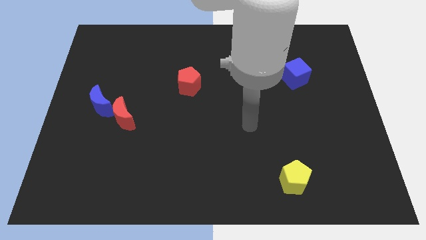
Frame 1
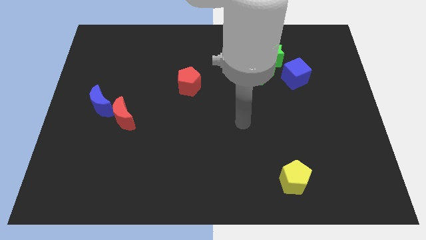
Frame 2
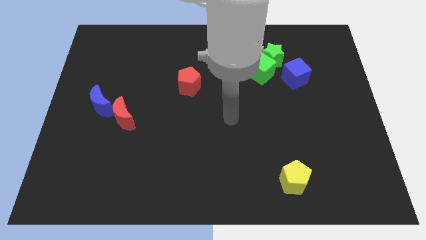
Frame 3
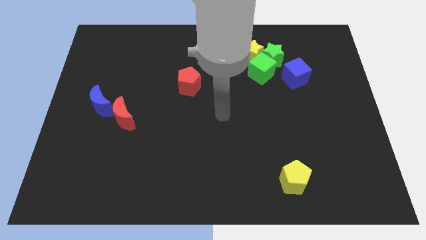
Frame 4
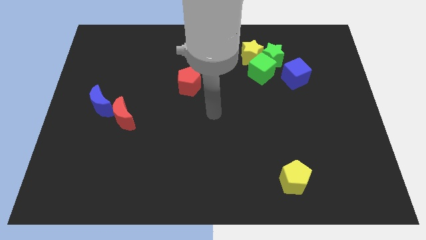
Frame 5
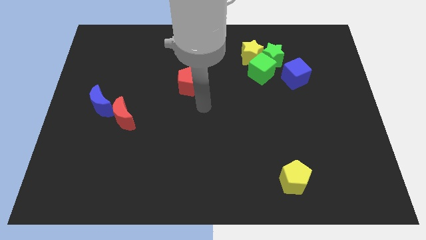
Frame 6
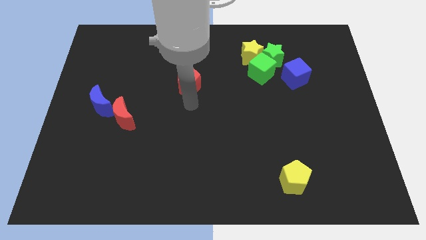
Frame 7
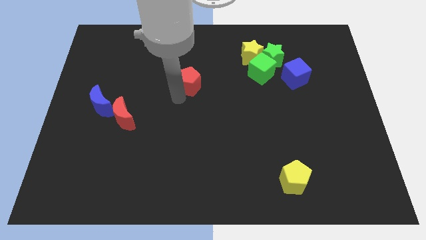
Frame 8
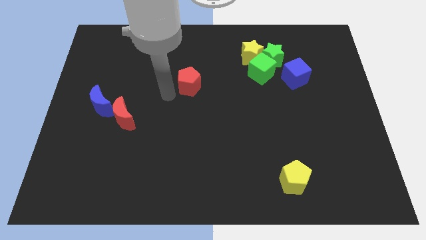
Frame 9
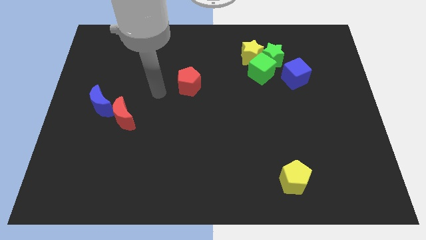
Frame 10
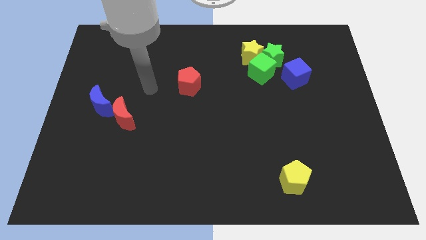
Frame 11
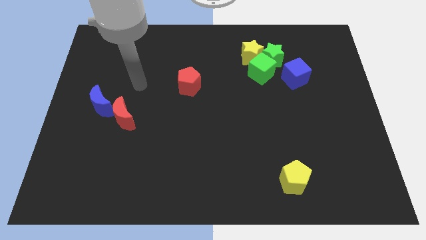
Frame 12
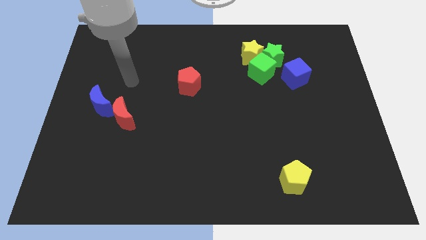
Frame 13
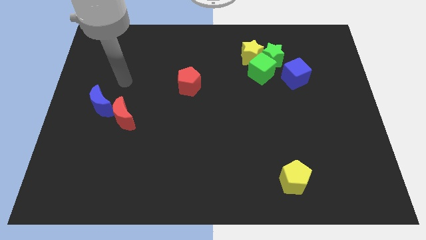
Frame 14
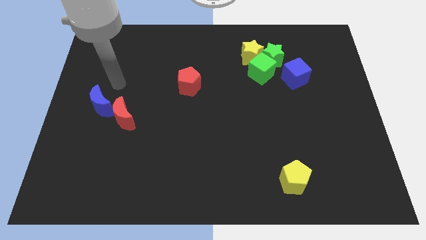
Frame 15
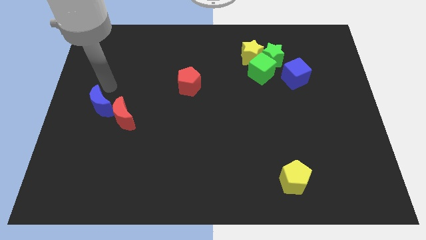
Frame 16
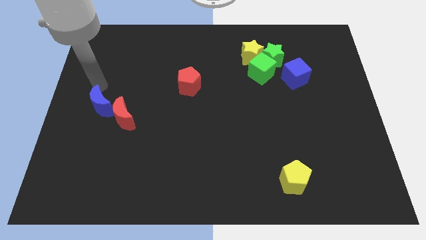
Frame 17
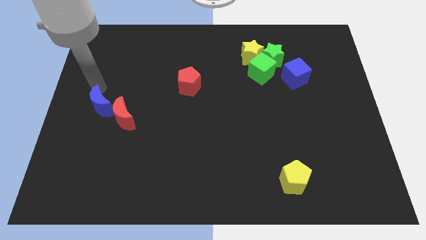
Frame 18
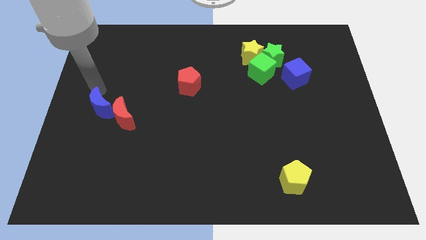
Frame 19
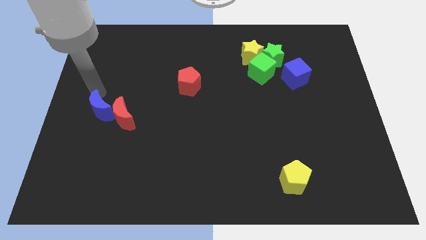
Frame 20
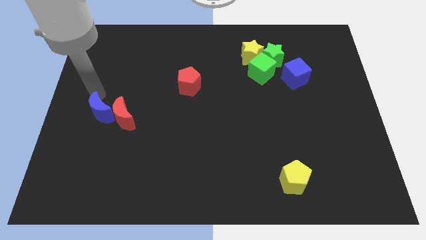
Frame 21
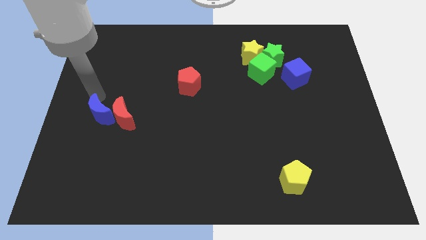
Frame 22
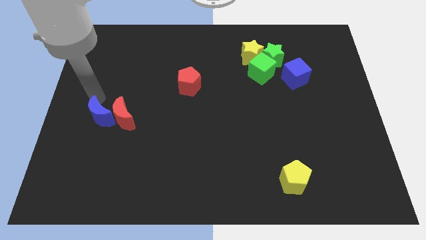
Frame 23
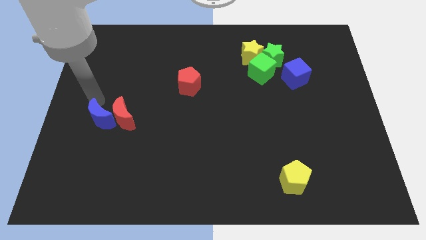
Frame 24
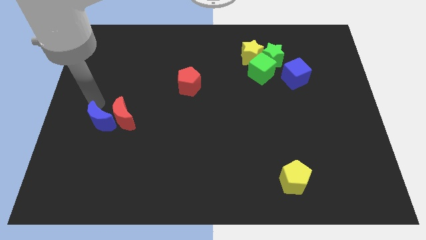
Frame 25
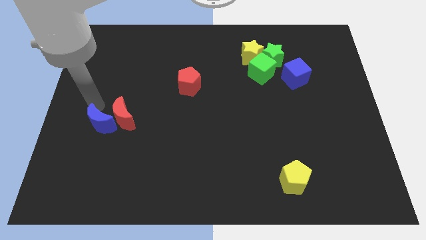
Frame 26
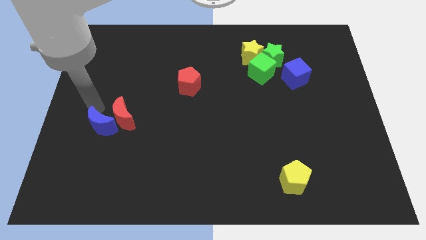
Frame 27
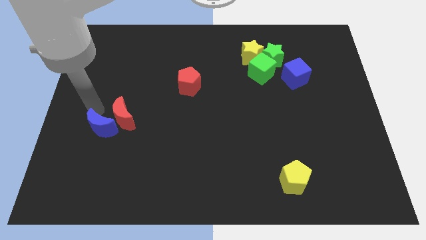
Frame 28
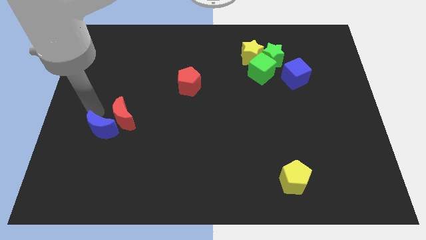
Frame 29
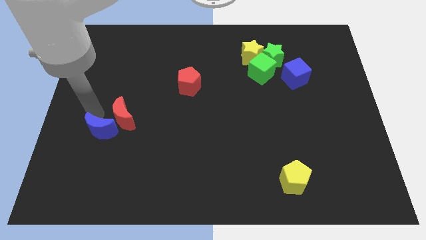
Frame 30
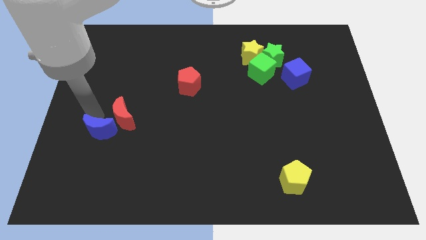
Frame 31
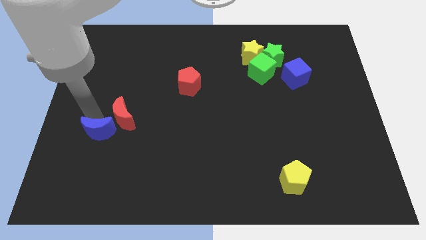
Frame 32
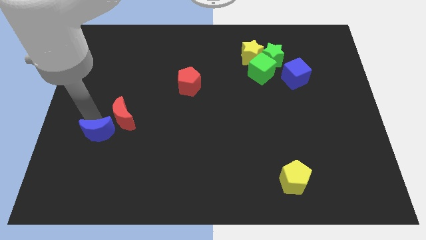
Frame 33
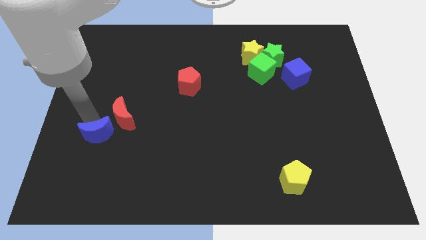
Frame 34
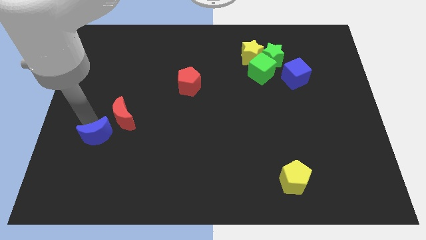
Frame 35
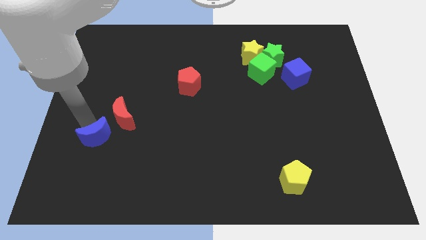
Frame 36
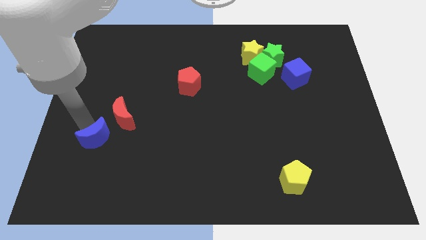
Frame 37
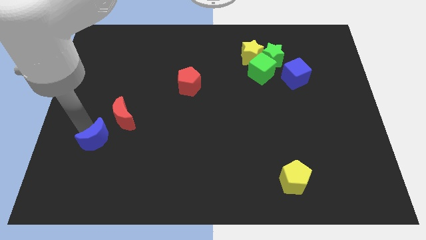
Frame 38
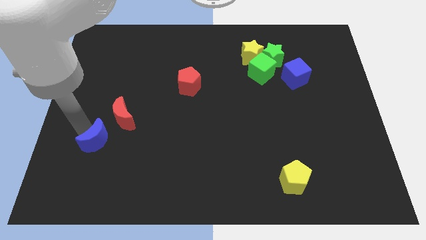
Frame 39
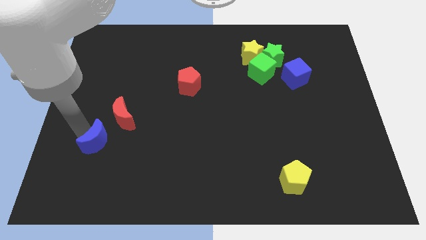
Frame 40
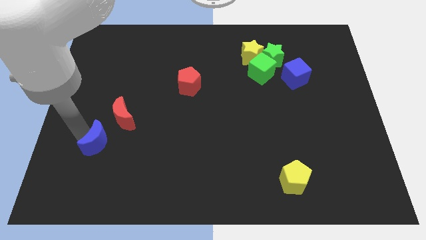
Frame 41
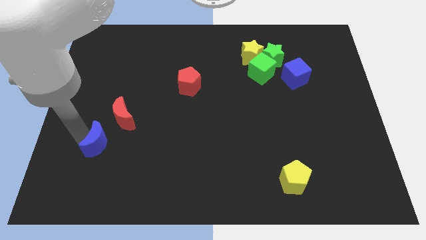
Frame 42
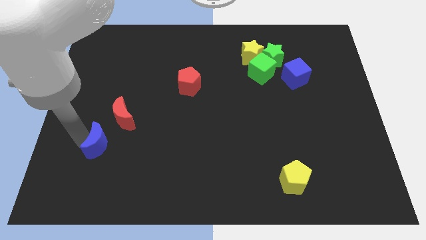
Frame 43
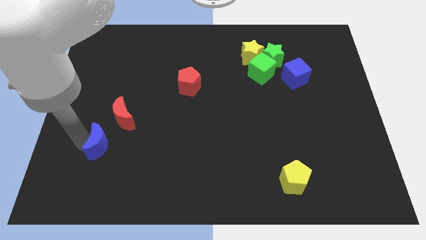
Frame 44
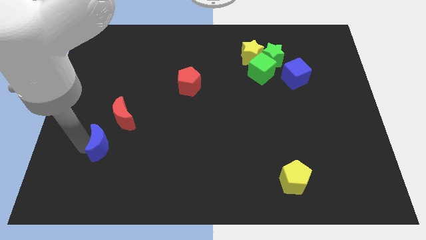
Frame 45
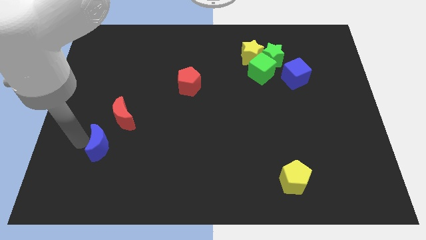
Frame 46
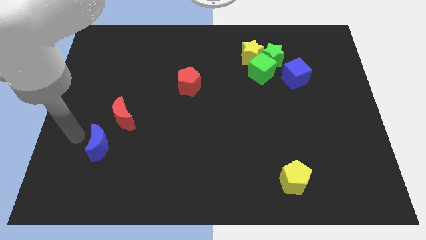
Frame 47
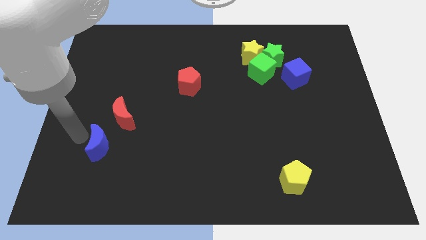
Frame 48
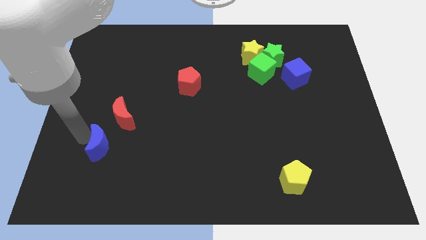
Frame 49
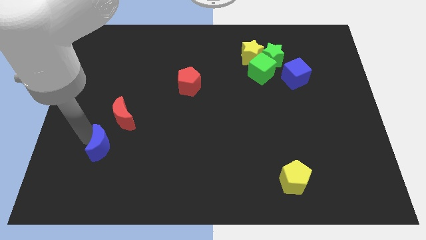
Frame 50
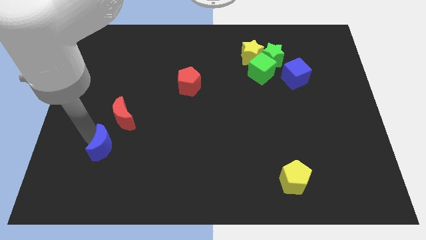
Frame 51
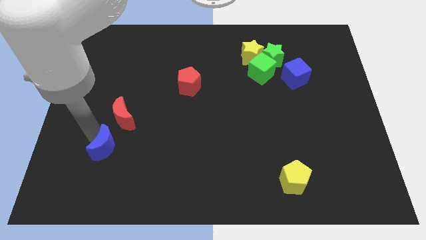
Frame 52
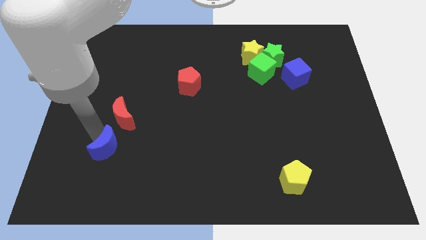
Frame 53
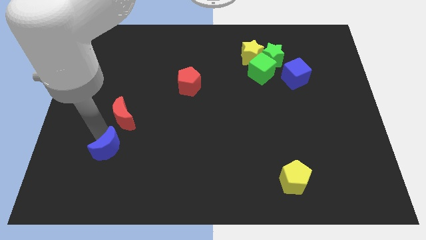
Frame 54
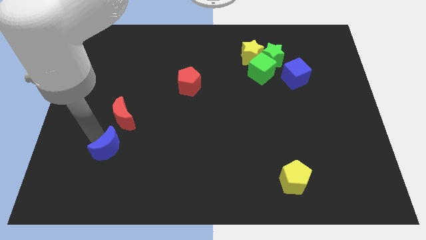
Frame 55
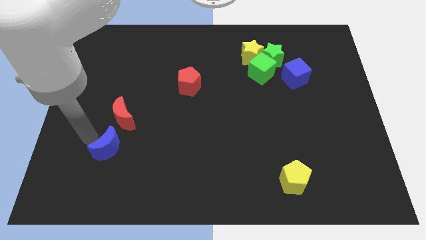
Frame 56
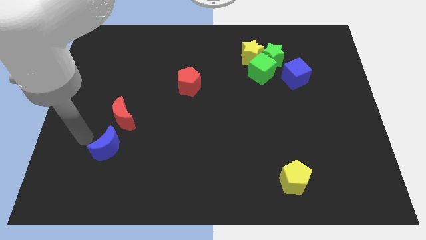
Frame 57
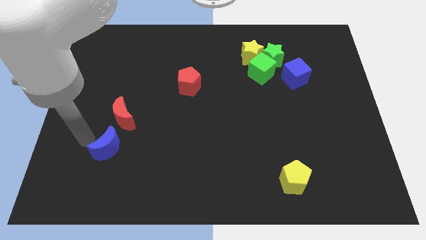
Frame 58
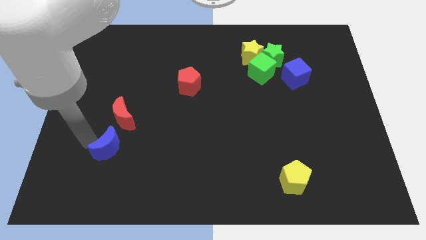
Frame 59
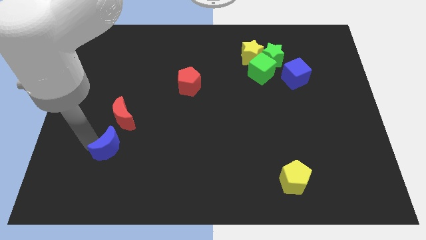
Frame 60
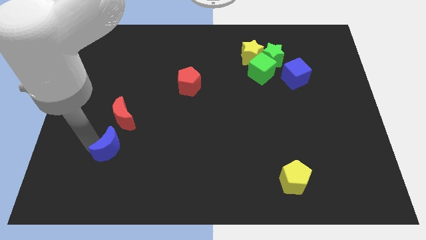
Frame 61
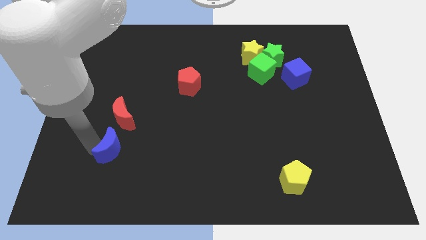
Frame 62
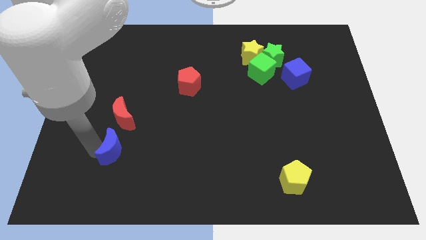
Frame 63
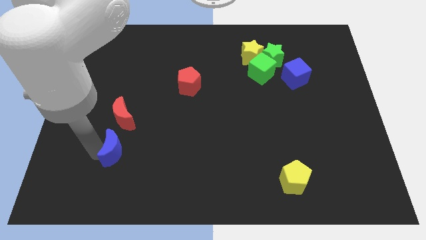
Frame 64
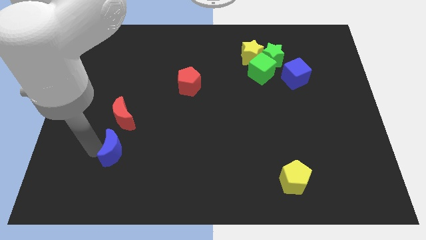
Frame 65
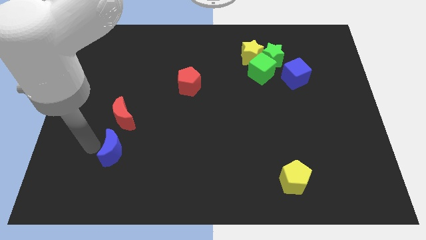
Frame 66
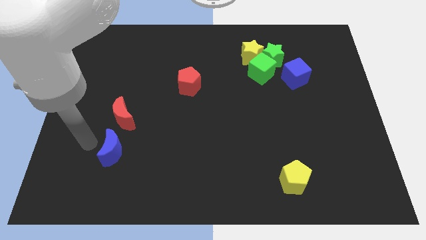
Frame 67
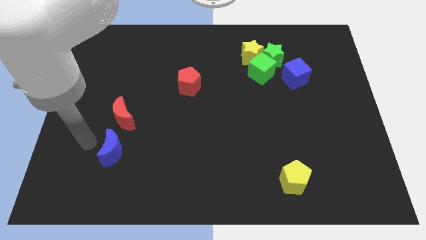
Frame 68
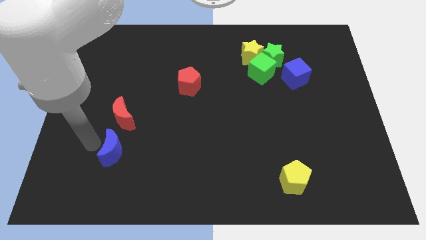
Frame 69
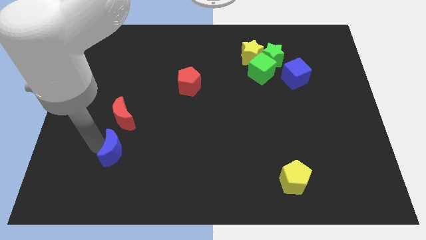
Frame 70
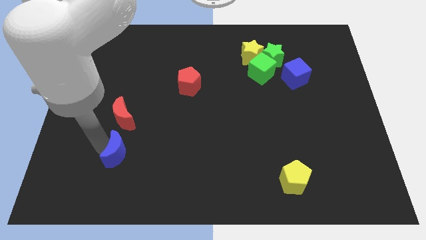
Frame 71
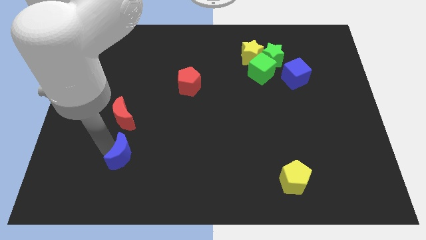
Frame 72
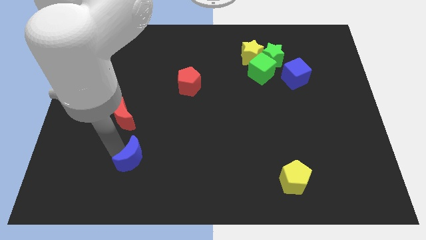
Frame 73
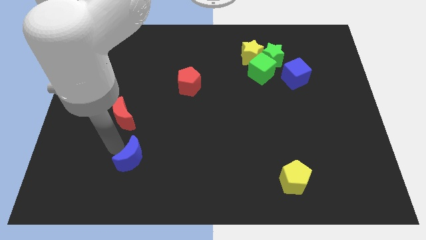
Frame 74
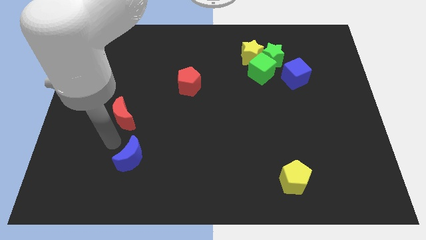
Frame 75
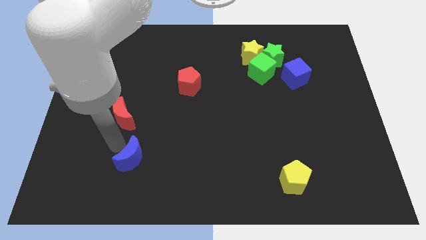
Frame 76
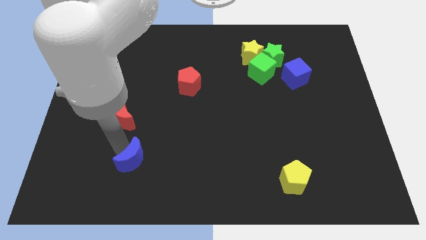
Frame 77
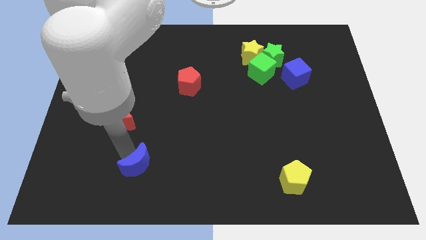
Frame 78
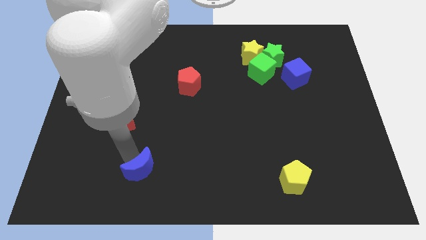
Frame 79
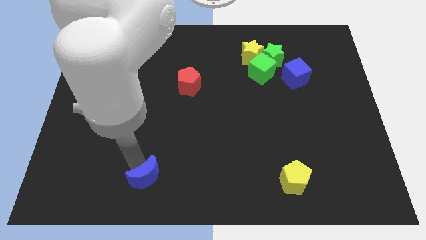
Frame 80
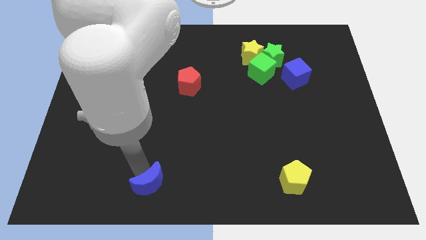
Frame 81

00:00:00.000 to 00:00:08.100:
push the blue moon to the bottom
